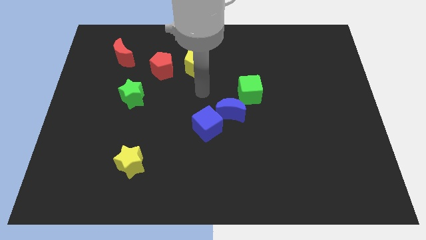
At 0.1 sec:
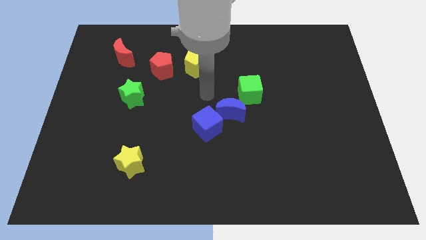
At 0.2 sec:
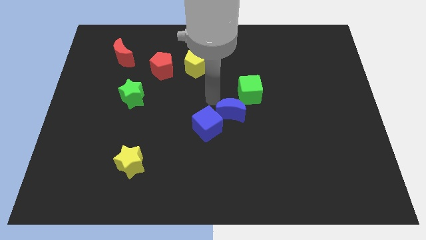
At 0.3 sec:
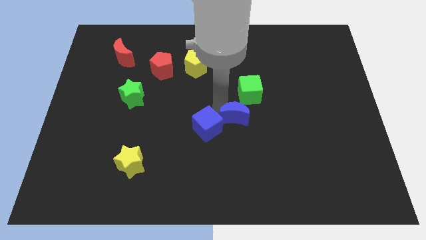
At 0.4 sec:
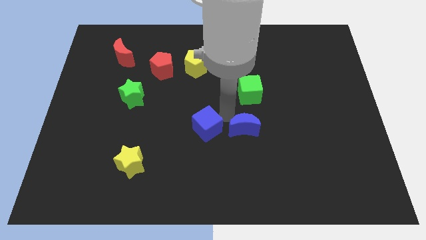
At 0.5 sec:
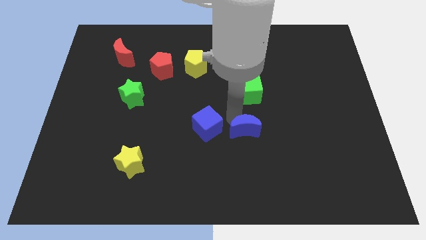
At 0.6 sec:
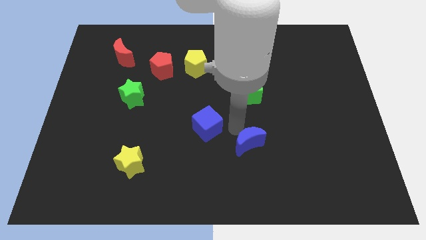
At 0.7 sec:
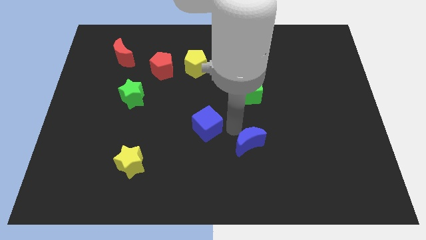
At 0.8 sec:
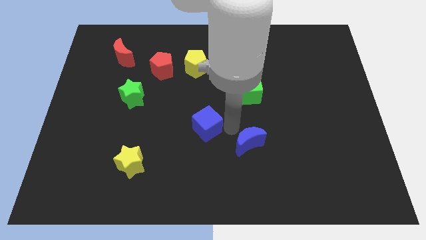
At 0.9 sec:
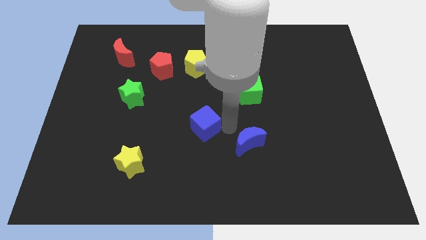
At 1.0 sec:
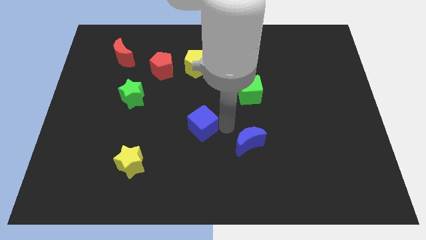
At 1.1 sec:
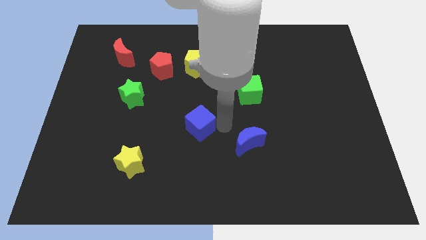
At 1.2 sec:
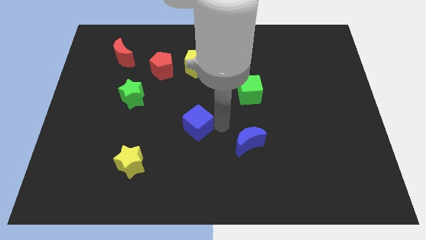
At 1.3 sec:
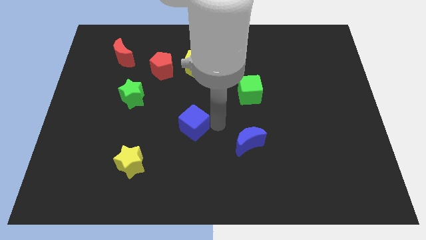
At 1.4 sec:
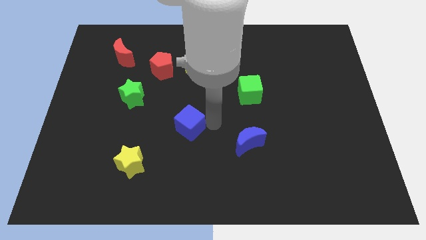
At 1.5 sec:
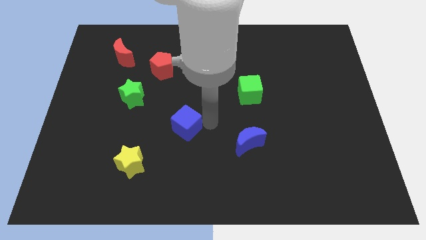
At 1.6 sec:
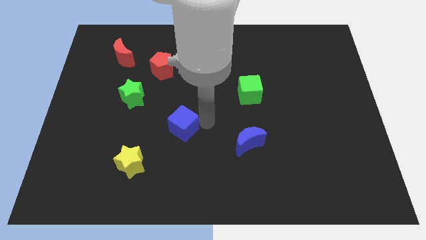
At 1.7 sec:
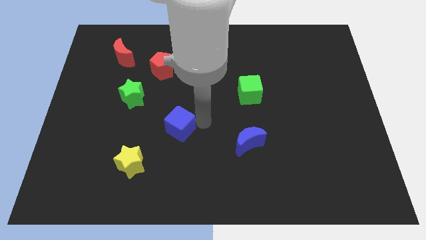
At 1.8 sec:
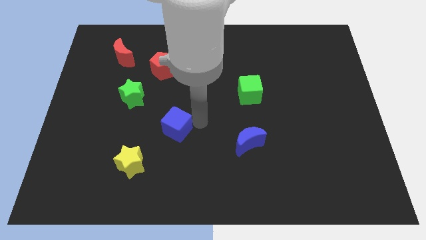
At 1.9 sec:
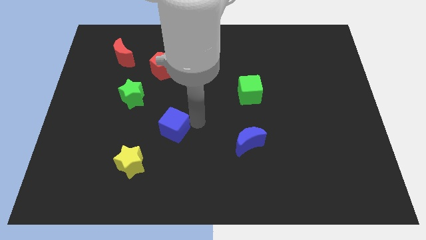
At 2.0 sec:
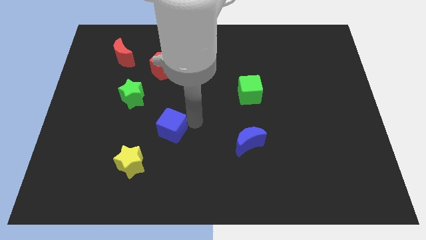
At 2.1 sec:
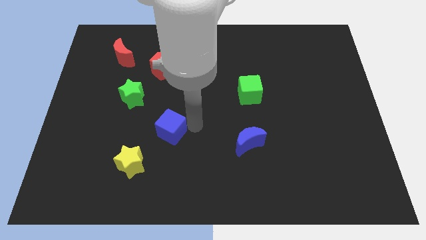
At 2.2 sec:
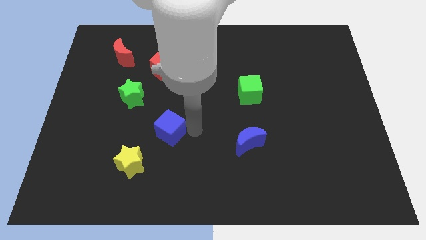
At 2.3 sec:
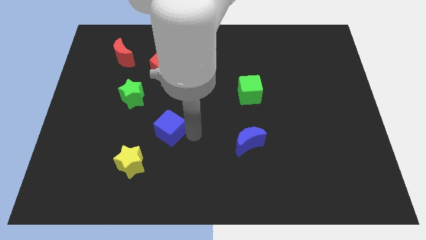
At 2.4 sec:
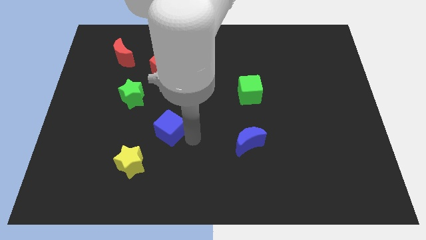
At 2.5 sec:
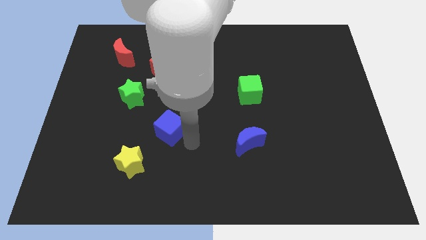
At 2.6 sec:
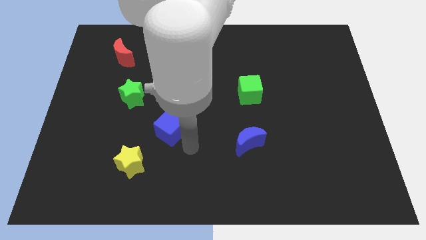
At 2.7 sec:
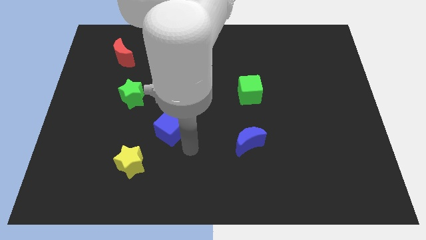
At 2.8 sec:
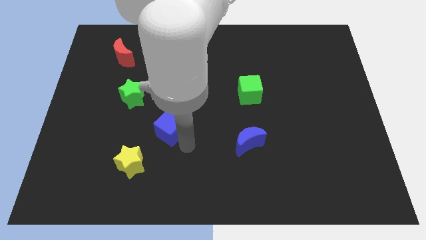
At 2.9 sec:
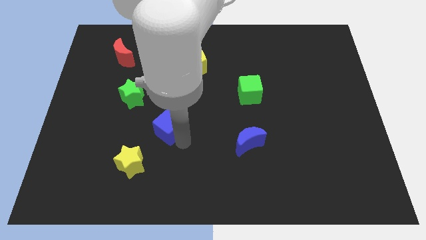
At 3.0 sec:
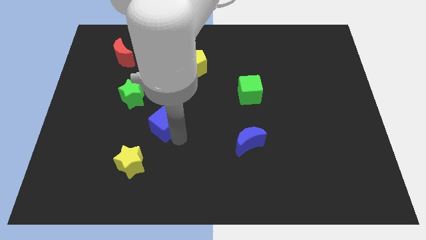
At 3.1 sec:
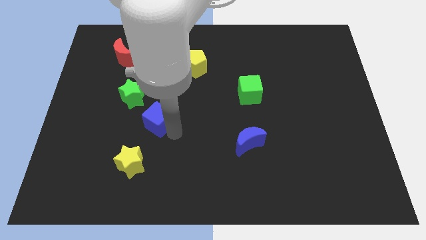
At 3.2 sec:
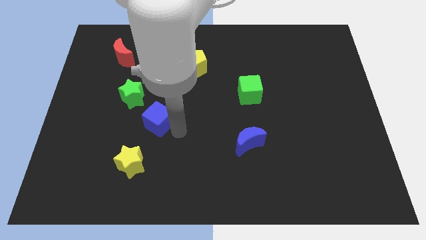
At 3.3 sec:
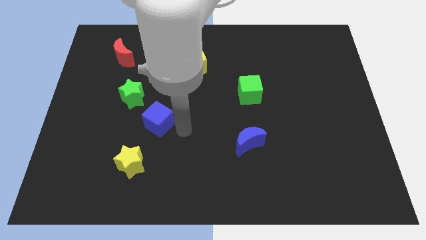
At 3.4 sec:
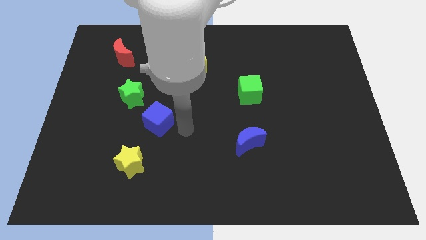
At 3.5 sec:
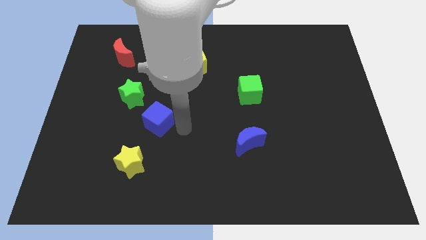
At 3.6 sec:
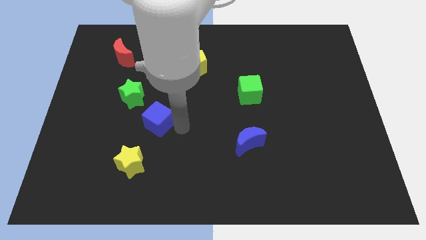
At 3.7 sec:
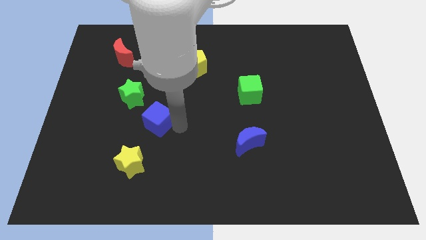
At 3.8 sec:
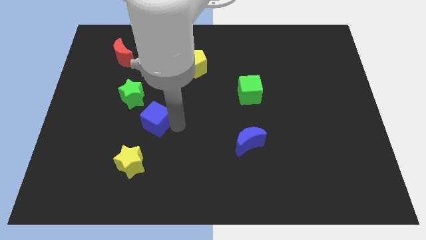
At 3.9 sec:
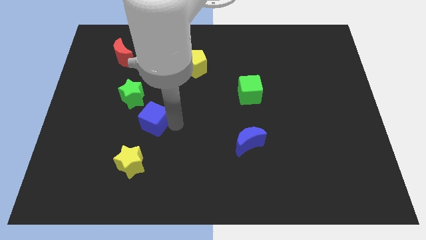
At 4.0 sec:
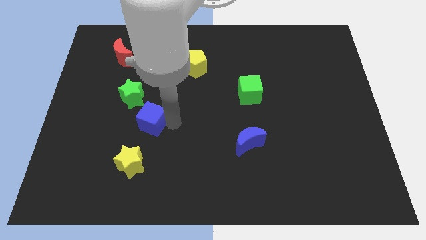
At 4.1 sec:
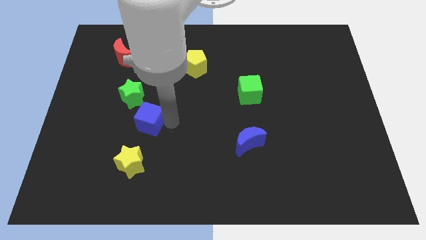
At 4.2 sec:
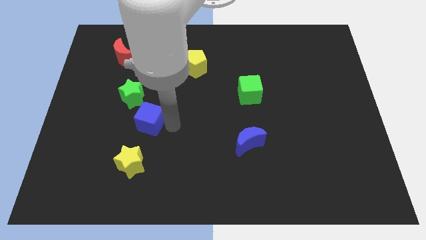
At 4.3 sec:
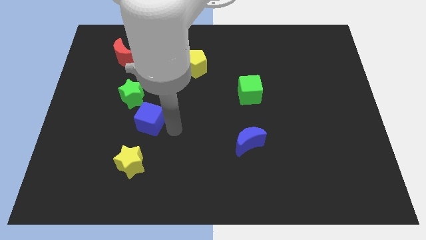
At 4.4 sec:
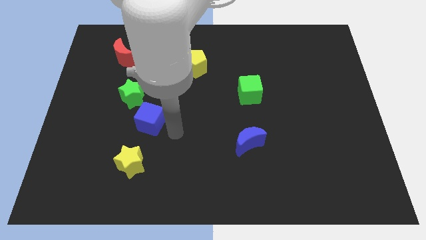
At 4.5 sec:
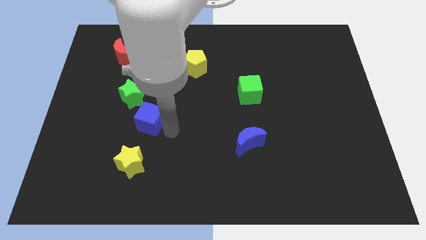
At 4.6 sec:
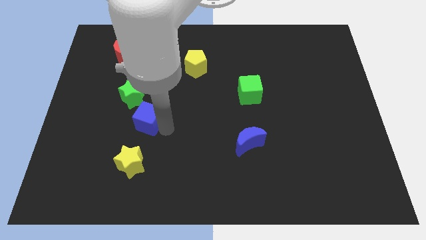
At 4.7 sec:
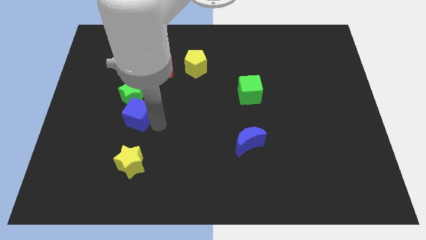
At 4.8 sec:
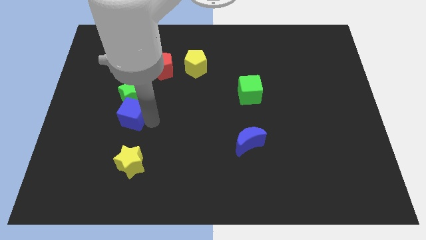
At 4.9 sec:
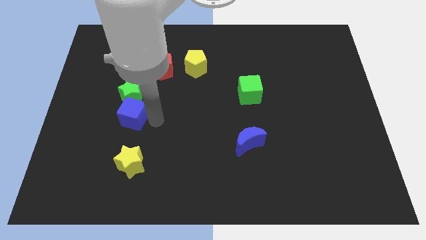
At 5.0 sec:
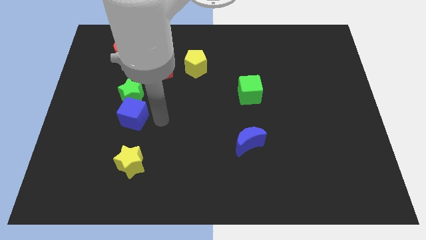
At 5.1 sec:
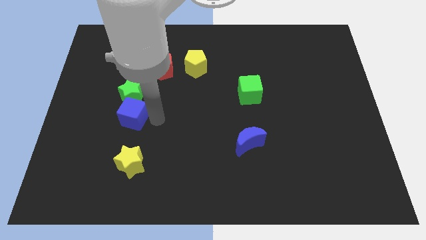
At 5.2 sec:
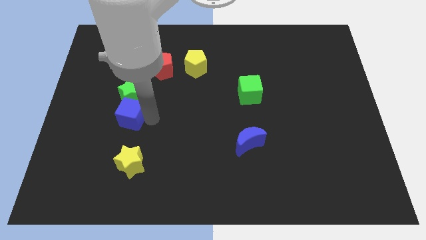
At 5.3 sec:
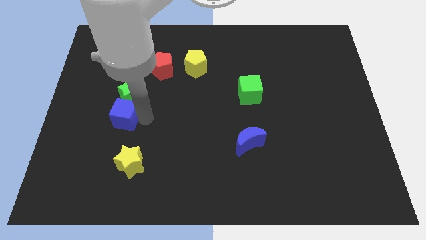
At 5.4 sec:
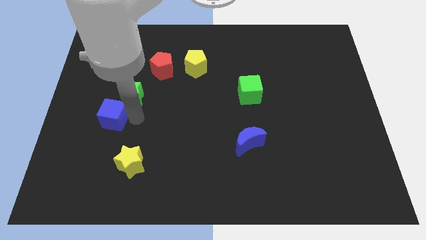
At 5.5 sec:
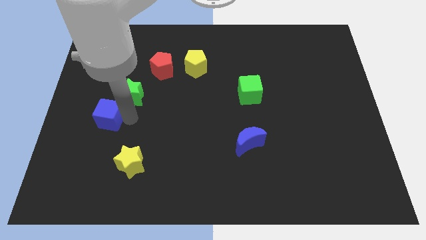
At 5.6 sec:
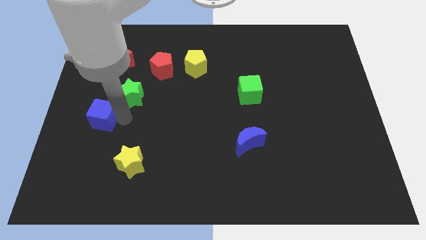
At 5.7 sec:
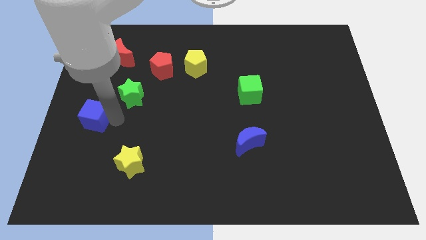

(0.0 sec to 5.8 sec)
slide the blue cube to the left side

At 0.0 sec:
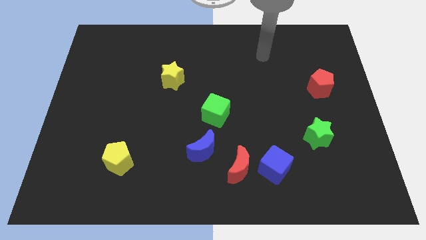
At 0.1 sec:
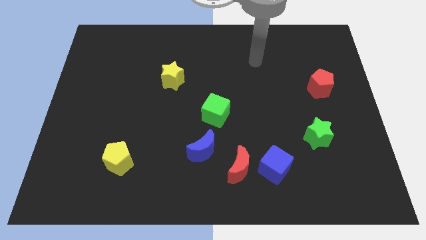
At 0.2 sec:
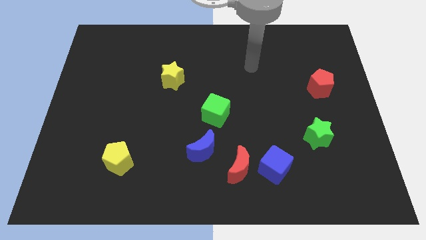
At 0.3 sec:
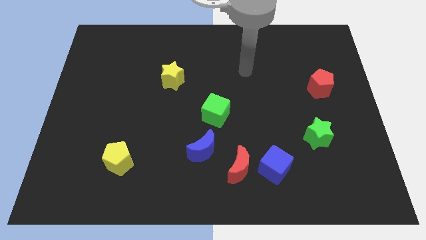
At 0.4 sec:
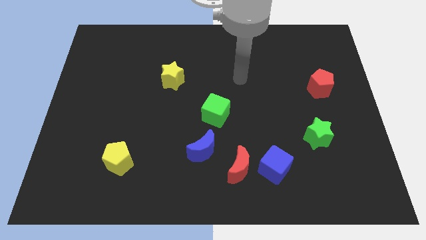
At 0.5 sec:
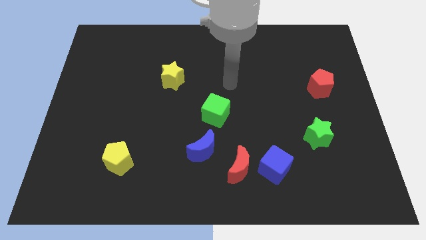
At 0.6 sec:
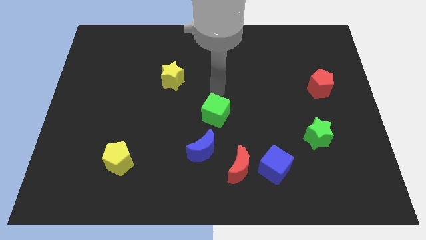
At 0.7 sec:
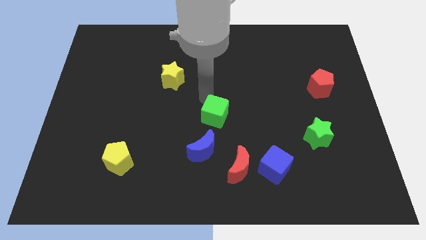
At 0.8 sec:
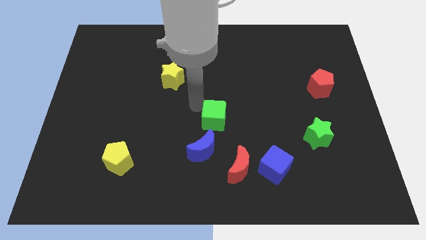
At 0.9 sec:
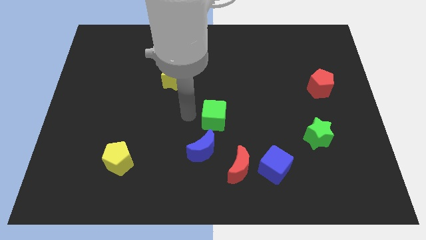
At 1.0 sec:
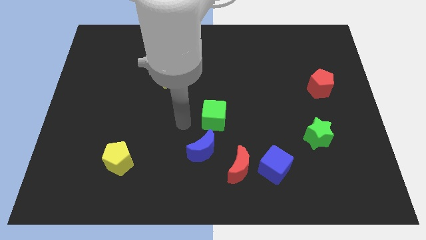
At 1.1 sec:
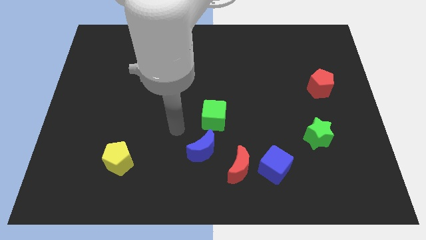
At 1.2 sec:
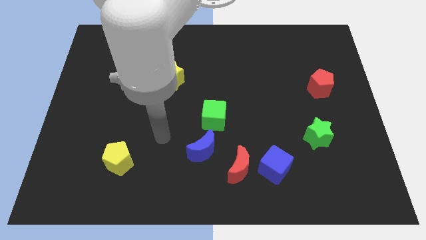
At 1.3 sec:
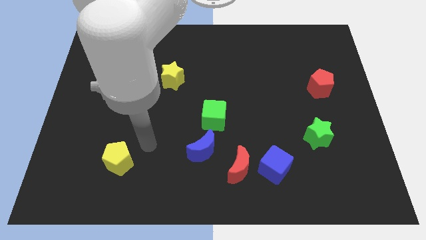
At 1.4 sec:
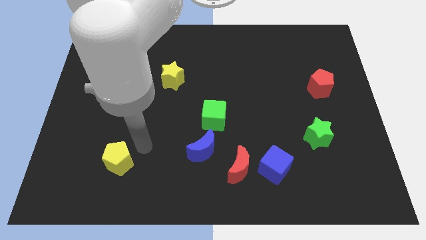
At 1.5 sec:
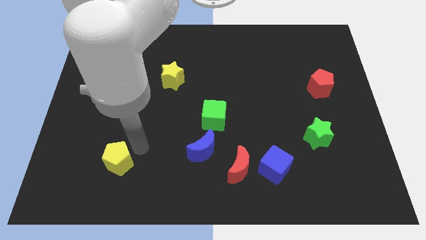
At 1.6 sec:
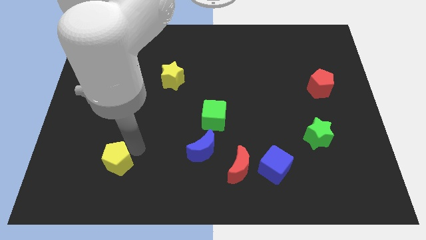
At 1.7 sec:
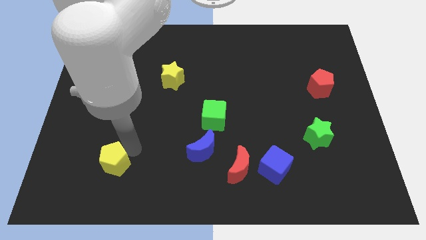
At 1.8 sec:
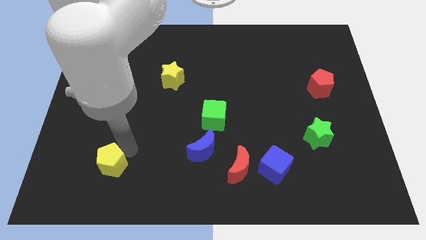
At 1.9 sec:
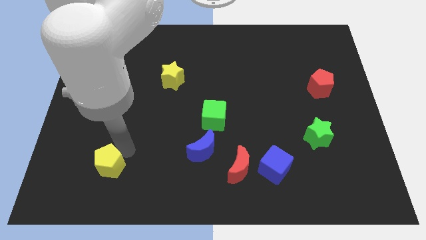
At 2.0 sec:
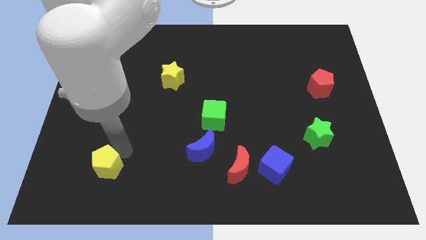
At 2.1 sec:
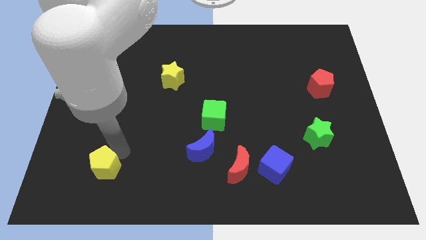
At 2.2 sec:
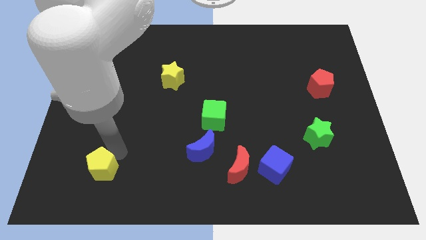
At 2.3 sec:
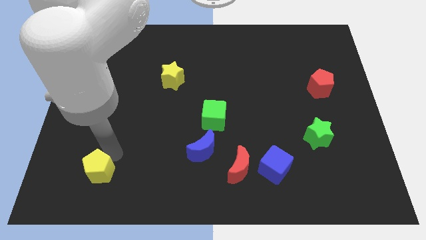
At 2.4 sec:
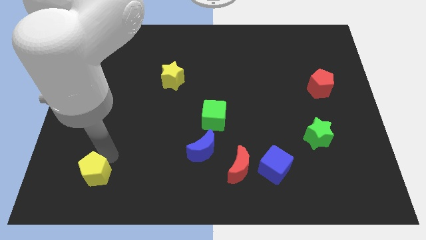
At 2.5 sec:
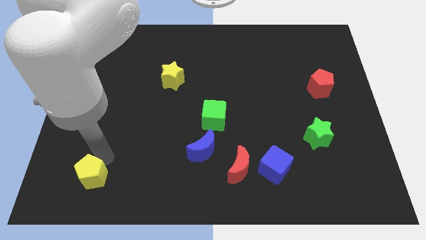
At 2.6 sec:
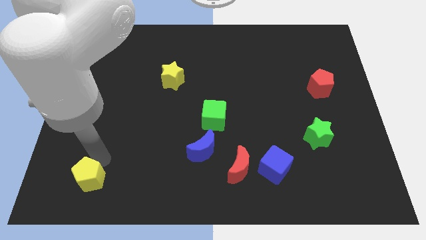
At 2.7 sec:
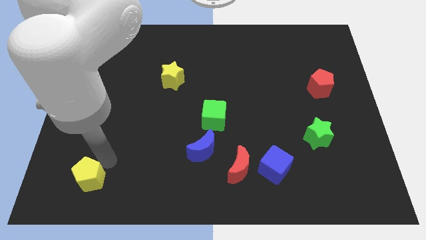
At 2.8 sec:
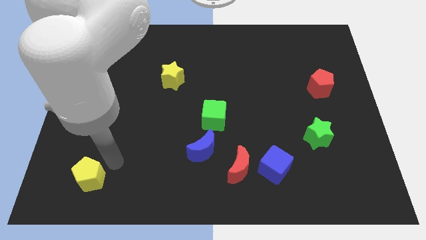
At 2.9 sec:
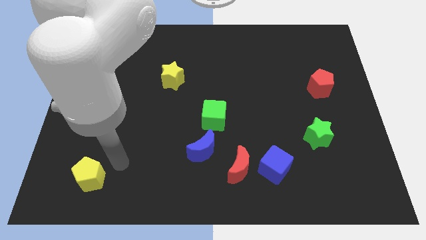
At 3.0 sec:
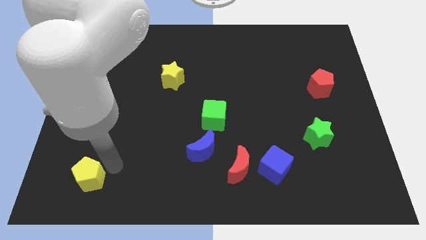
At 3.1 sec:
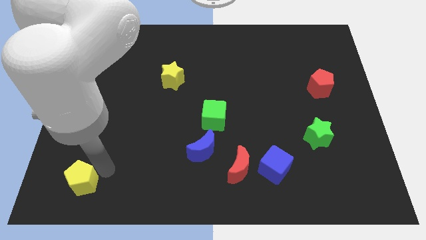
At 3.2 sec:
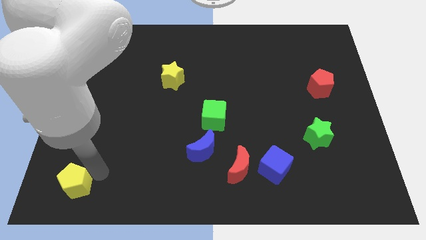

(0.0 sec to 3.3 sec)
put the yellow pentagon to the bottom left
